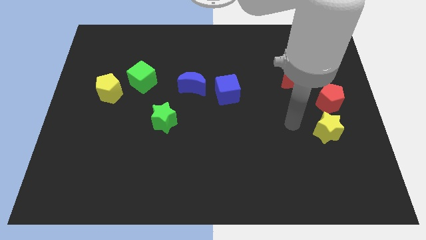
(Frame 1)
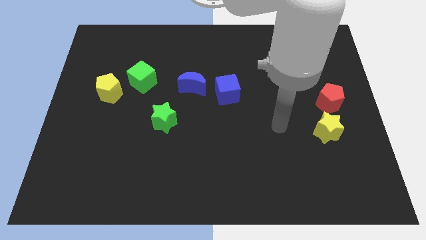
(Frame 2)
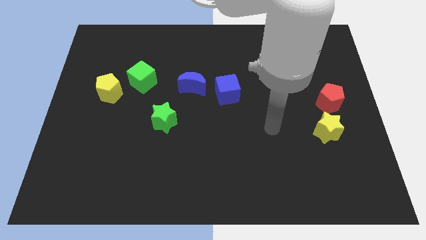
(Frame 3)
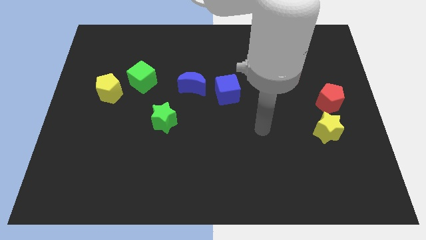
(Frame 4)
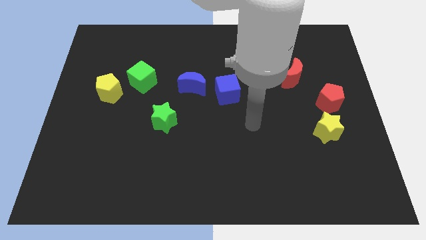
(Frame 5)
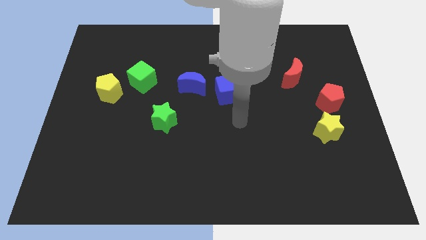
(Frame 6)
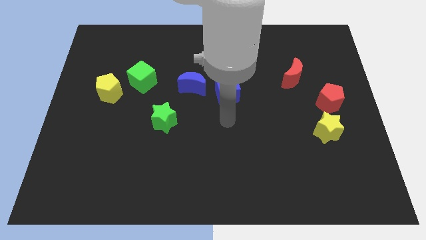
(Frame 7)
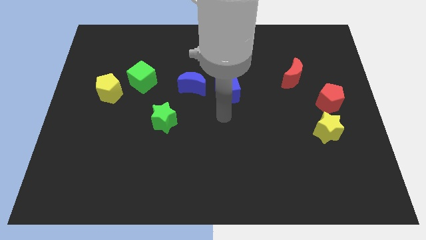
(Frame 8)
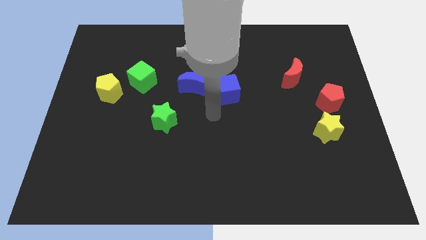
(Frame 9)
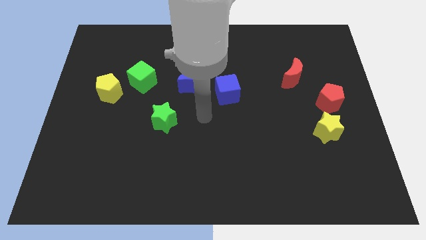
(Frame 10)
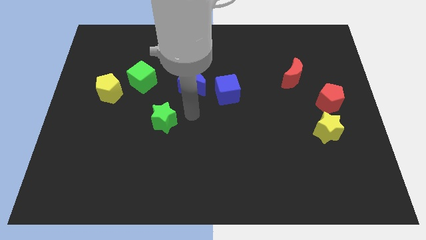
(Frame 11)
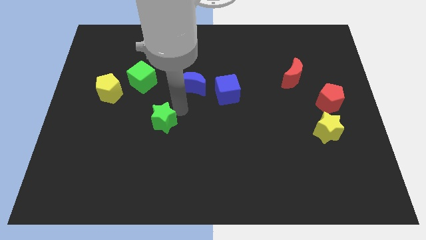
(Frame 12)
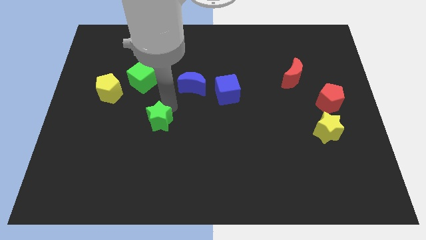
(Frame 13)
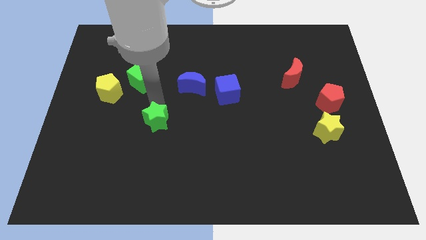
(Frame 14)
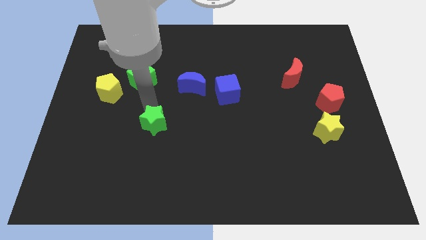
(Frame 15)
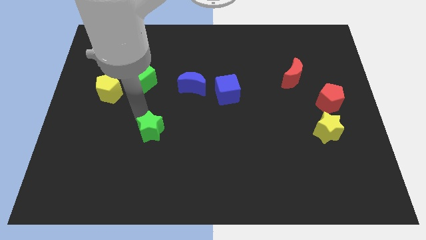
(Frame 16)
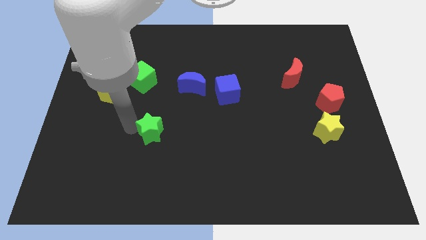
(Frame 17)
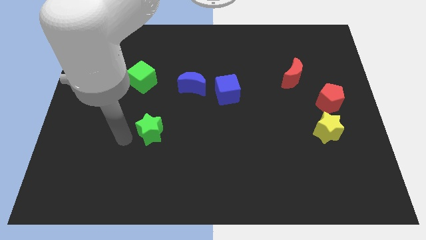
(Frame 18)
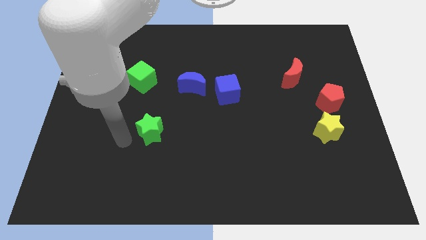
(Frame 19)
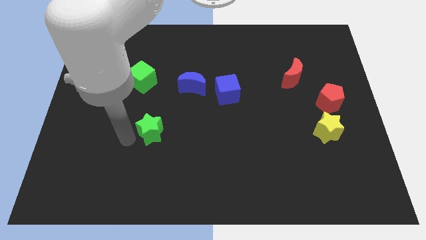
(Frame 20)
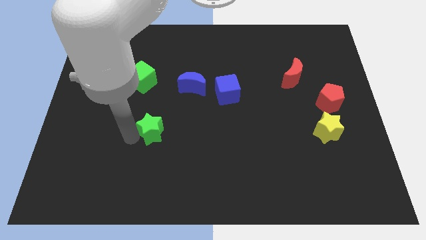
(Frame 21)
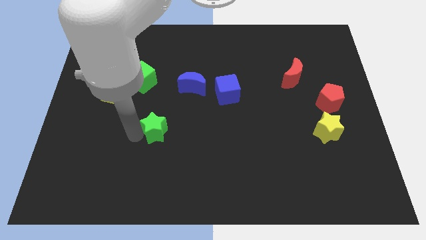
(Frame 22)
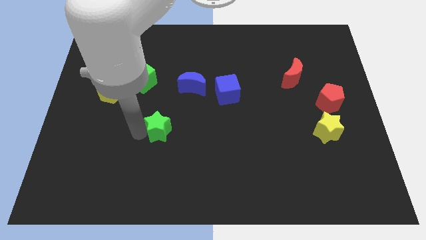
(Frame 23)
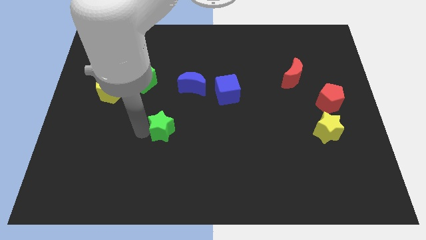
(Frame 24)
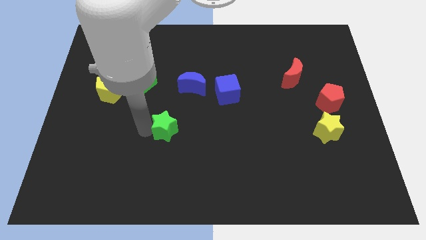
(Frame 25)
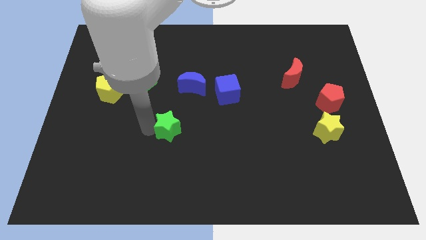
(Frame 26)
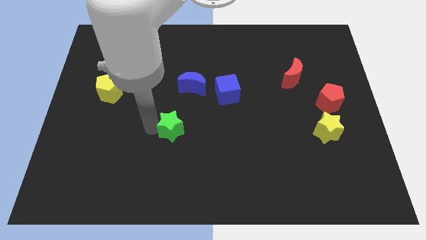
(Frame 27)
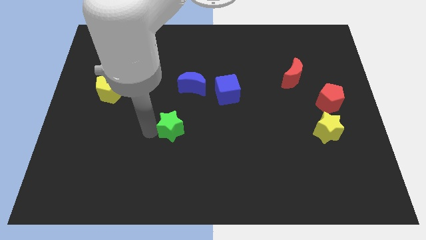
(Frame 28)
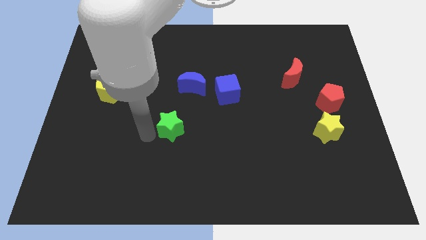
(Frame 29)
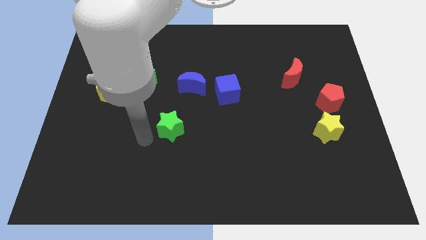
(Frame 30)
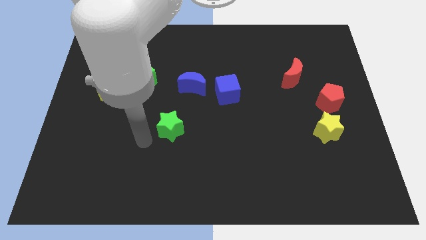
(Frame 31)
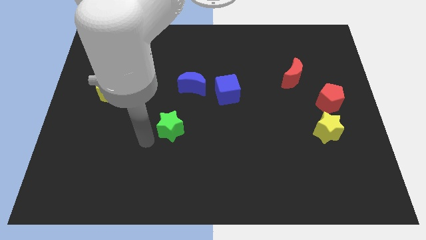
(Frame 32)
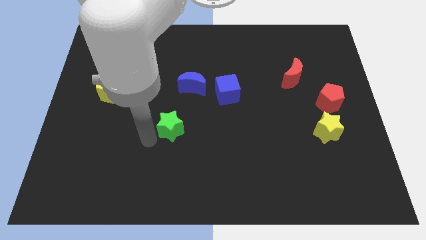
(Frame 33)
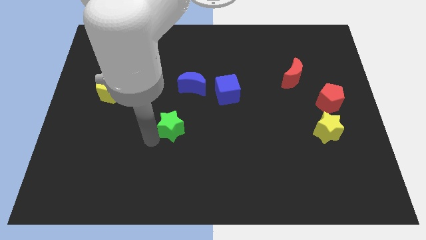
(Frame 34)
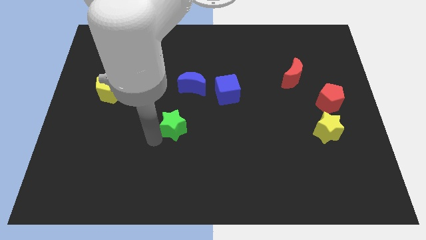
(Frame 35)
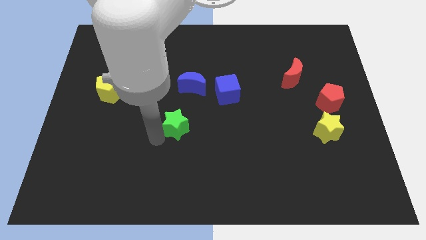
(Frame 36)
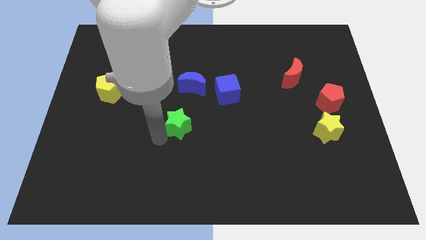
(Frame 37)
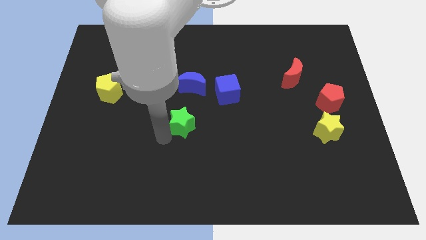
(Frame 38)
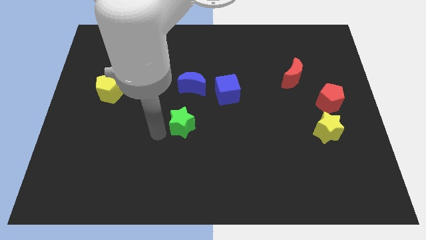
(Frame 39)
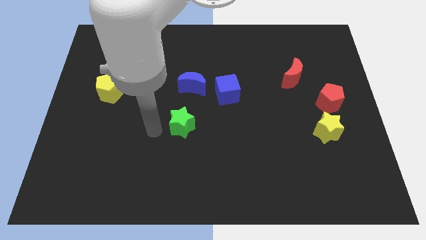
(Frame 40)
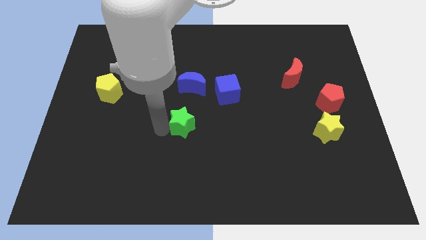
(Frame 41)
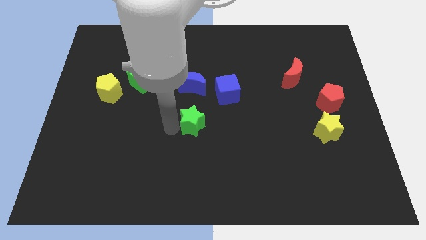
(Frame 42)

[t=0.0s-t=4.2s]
push the green star slightly right

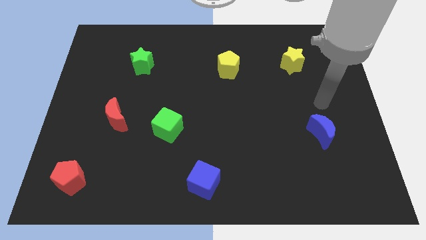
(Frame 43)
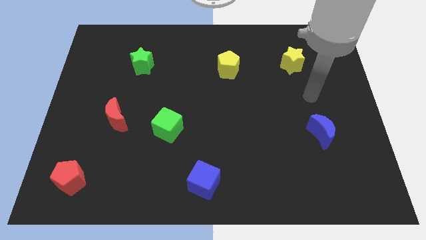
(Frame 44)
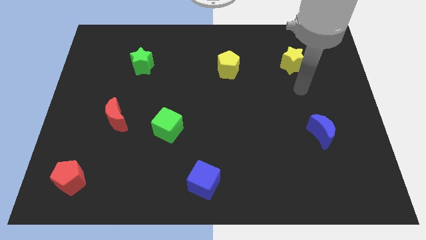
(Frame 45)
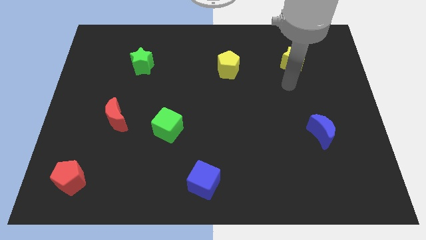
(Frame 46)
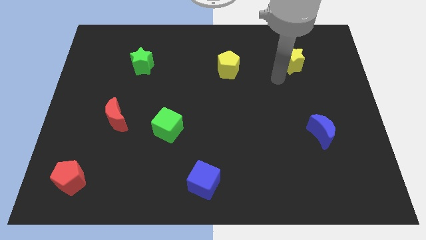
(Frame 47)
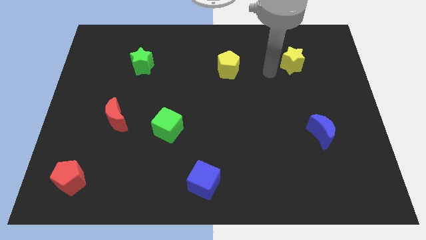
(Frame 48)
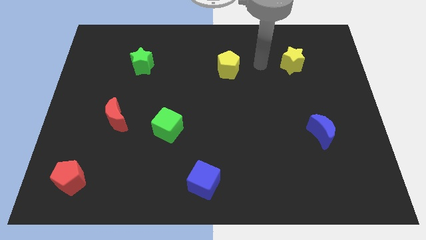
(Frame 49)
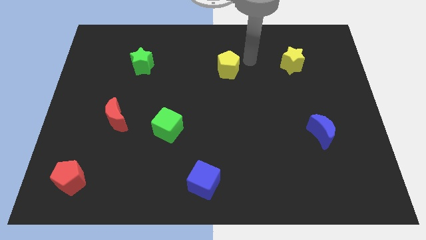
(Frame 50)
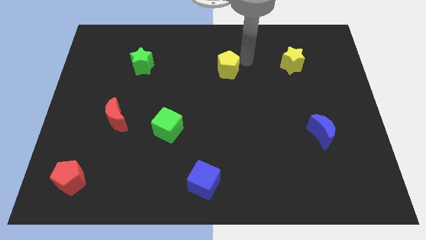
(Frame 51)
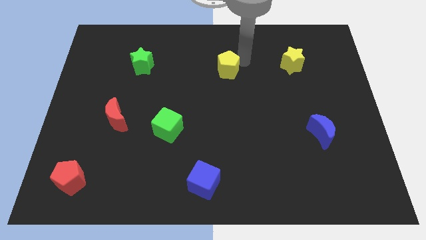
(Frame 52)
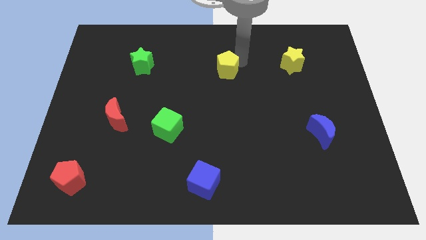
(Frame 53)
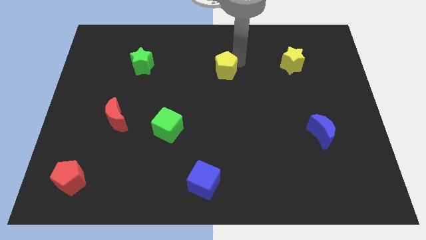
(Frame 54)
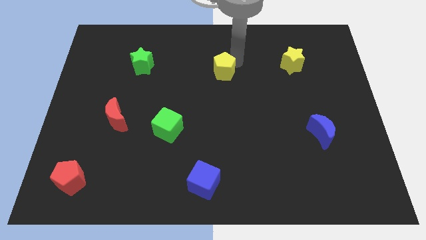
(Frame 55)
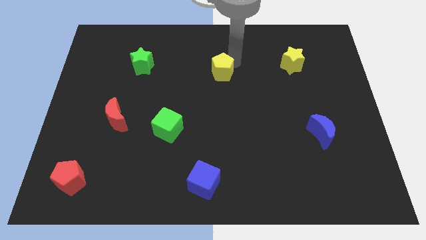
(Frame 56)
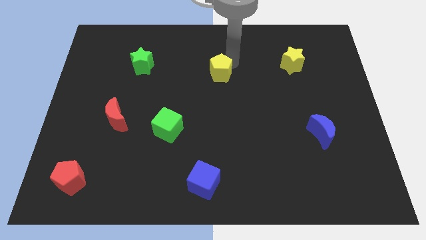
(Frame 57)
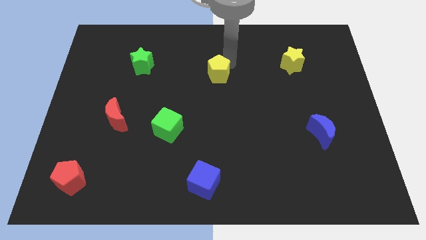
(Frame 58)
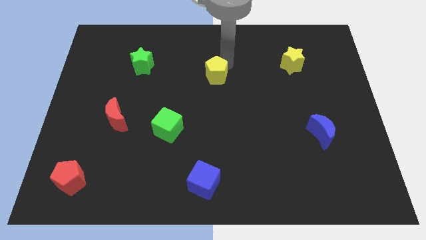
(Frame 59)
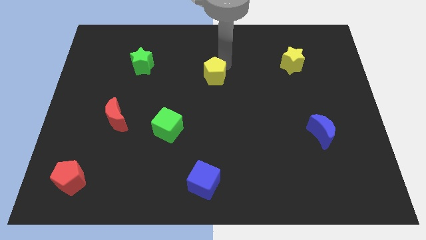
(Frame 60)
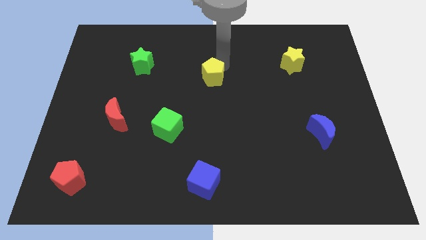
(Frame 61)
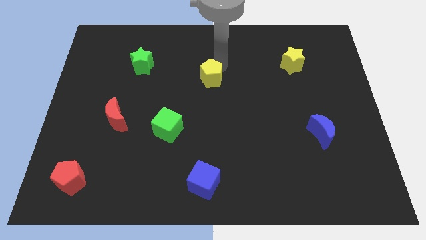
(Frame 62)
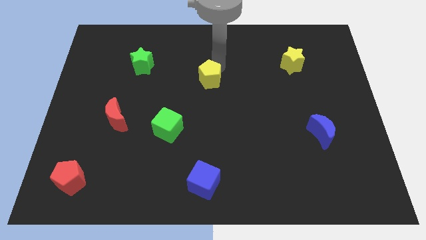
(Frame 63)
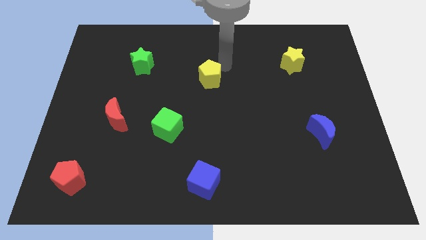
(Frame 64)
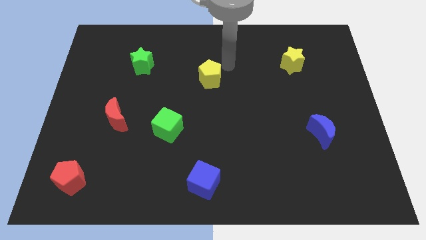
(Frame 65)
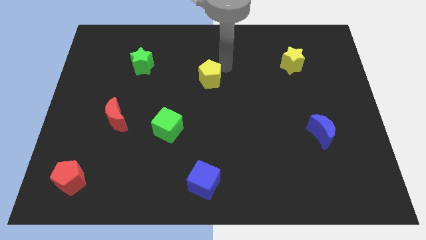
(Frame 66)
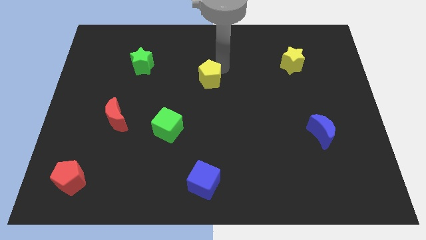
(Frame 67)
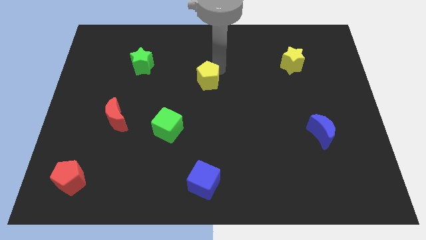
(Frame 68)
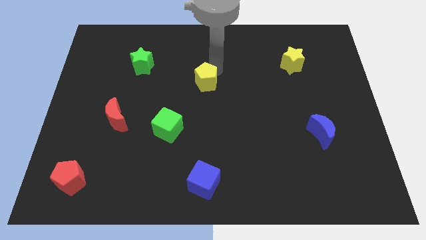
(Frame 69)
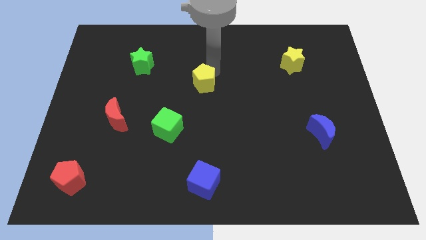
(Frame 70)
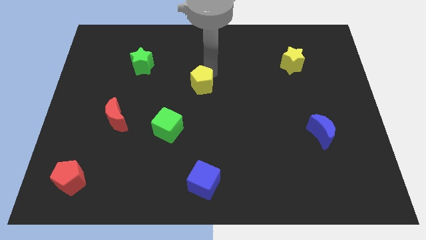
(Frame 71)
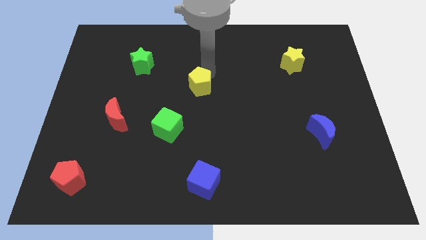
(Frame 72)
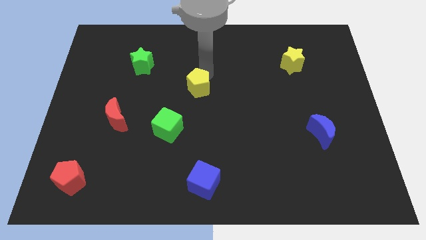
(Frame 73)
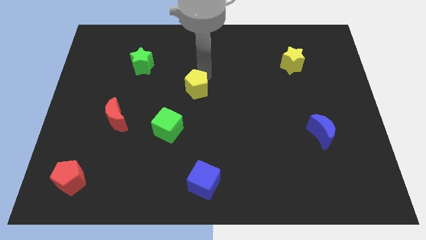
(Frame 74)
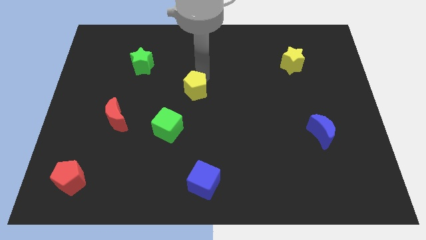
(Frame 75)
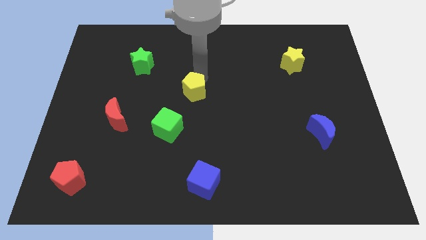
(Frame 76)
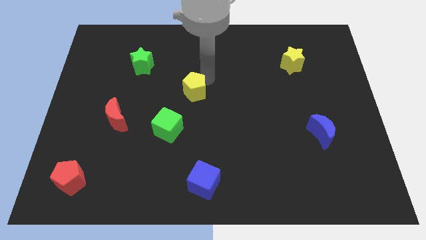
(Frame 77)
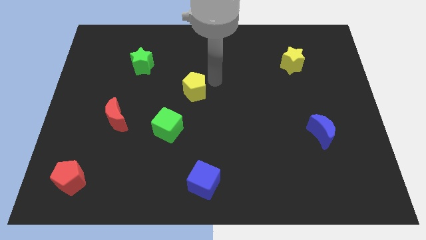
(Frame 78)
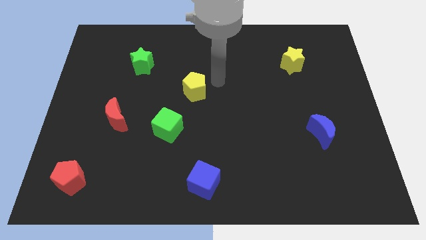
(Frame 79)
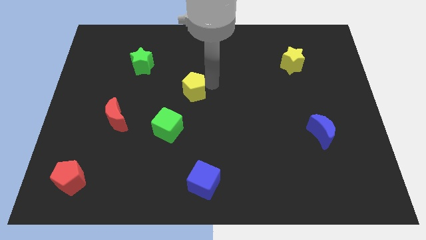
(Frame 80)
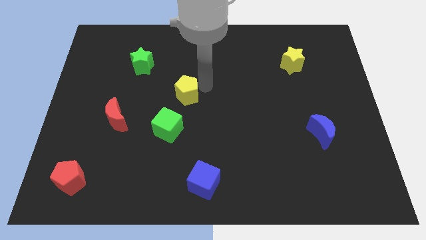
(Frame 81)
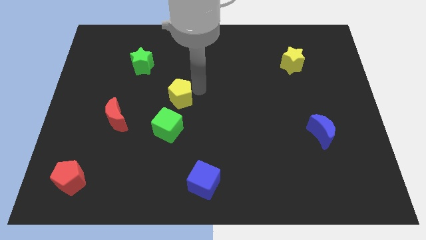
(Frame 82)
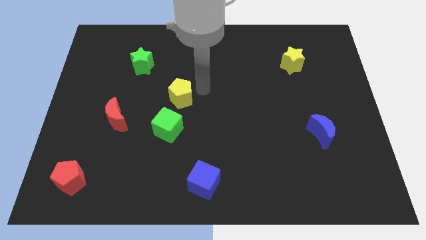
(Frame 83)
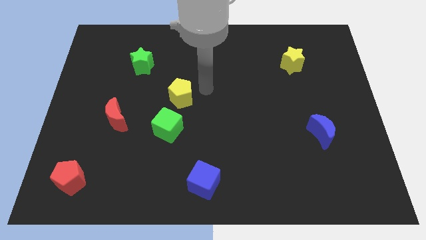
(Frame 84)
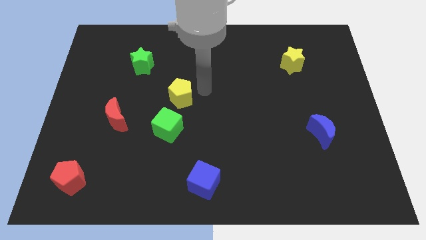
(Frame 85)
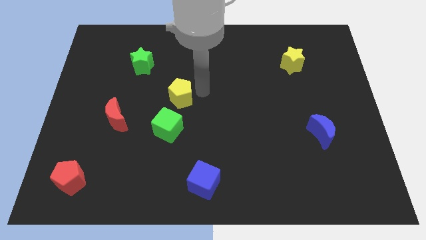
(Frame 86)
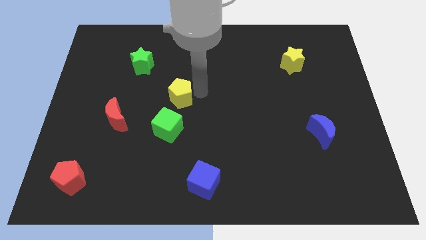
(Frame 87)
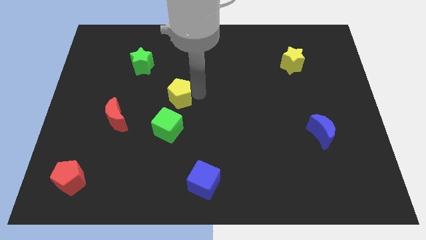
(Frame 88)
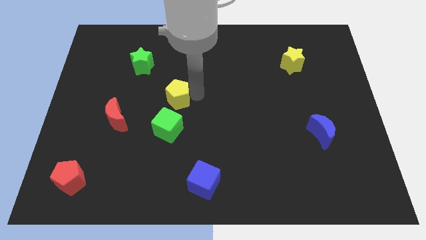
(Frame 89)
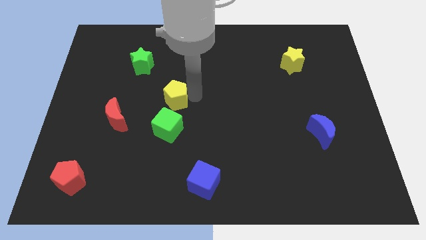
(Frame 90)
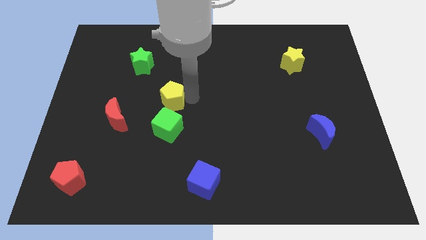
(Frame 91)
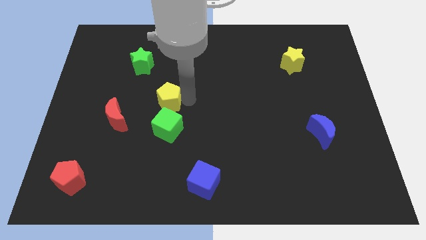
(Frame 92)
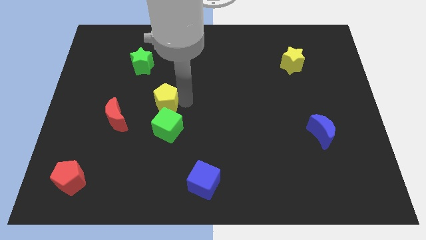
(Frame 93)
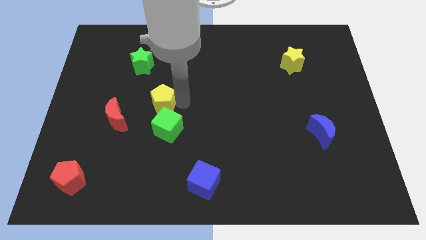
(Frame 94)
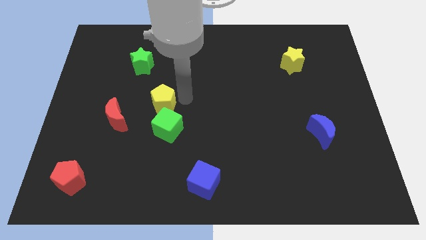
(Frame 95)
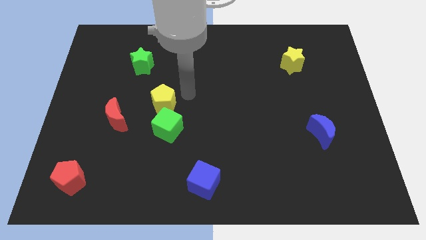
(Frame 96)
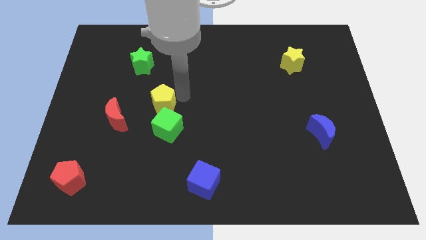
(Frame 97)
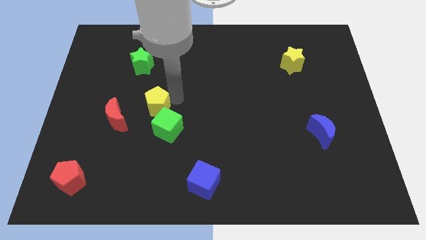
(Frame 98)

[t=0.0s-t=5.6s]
move the yellow pentagon down and then to the left
